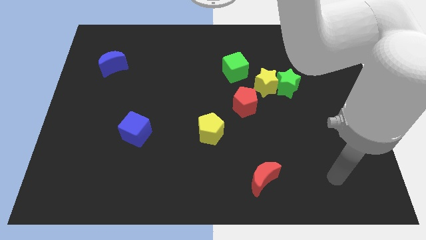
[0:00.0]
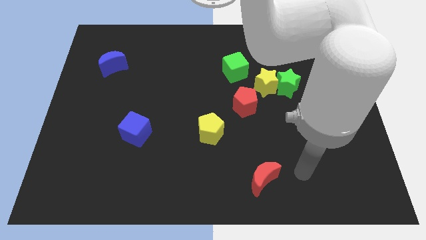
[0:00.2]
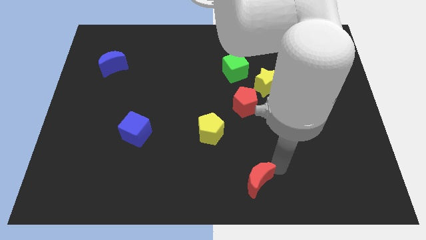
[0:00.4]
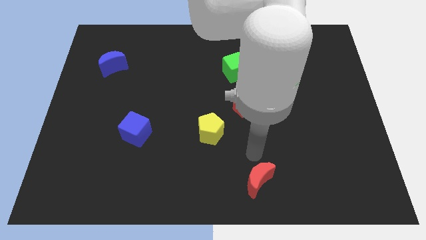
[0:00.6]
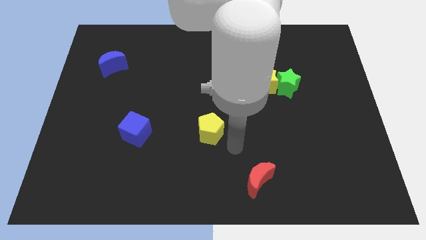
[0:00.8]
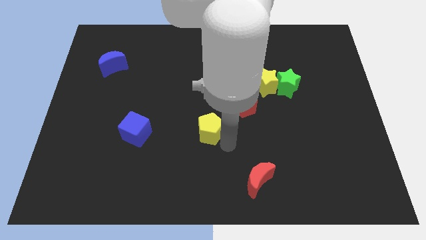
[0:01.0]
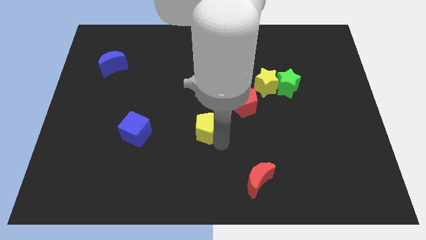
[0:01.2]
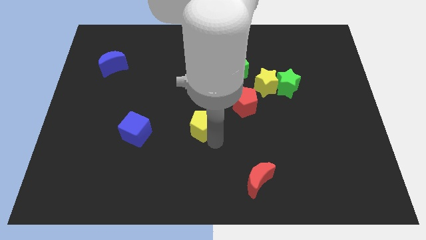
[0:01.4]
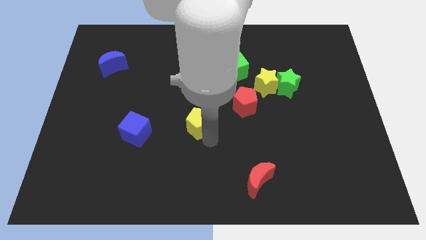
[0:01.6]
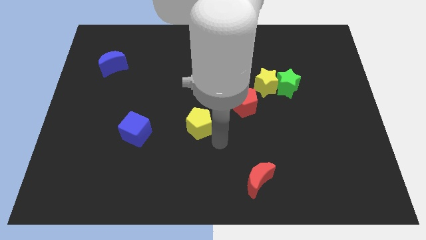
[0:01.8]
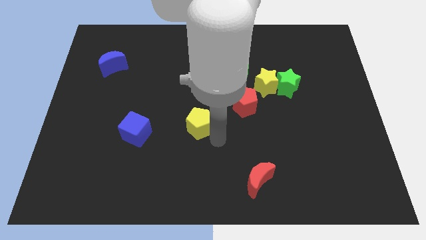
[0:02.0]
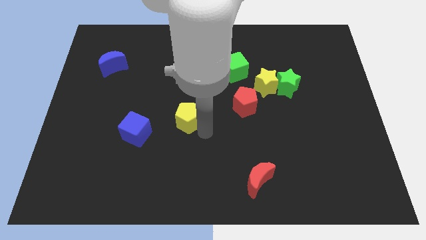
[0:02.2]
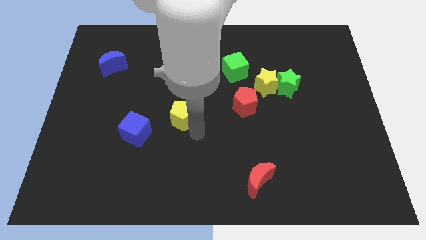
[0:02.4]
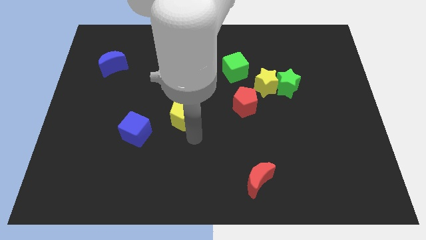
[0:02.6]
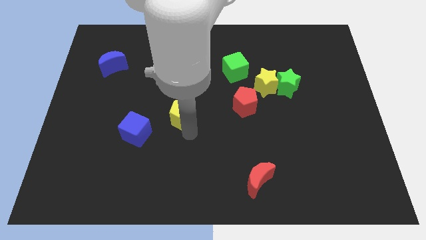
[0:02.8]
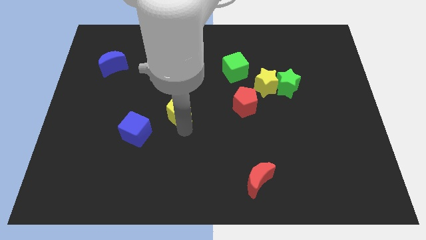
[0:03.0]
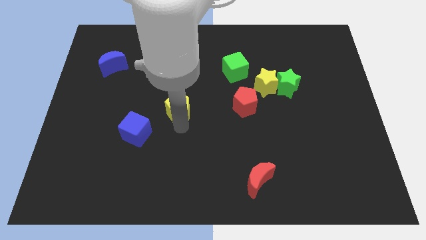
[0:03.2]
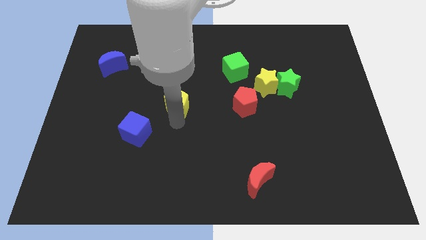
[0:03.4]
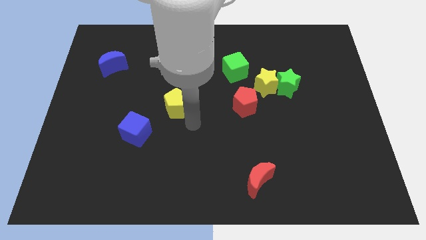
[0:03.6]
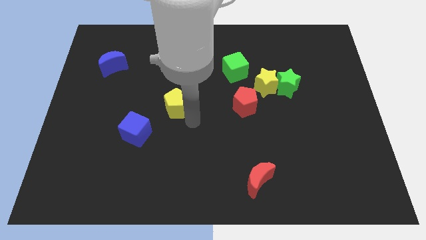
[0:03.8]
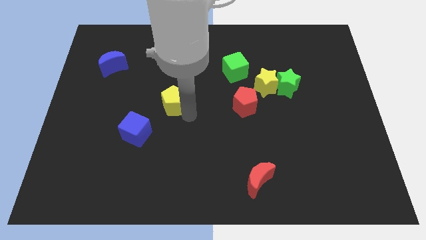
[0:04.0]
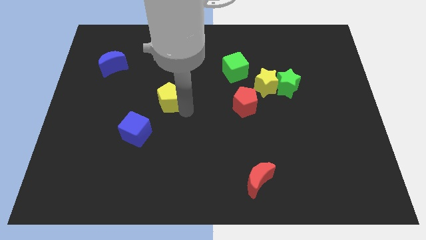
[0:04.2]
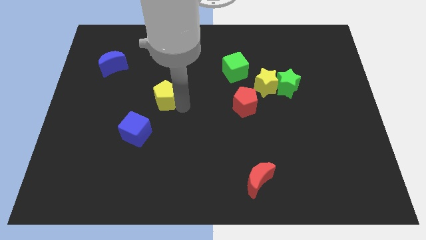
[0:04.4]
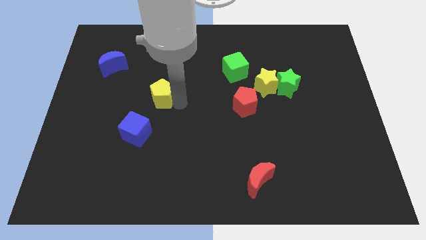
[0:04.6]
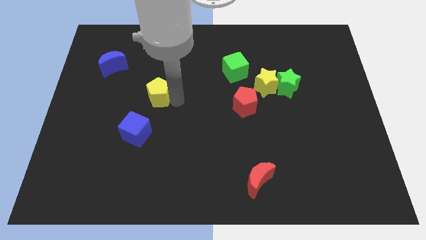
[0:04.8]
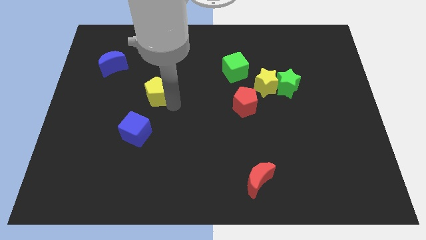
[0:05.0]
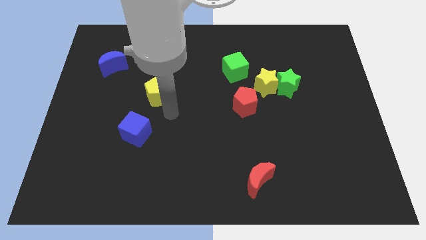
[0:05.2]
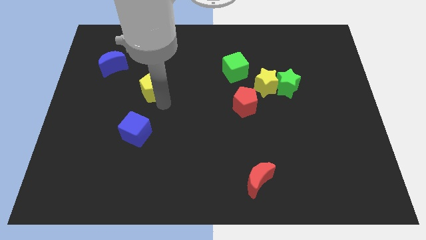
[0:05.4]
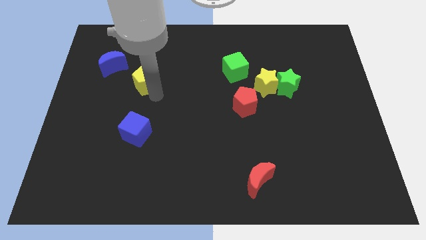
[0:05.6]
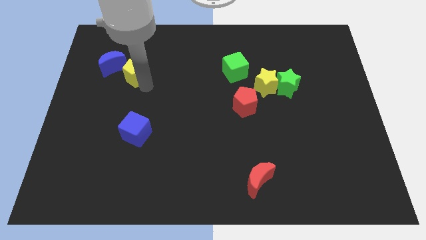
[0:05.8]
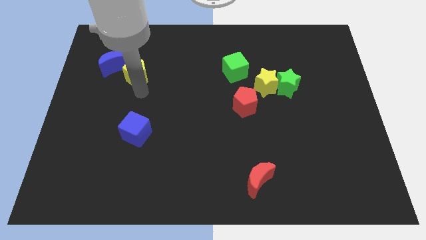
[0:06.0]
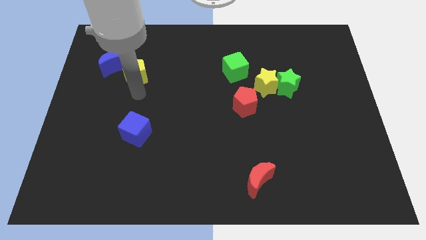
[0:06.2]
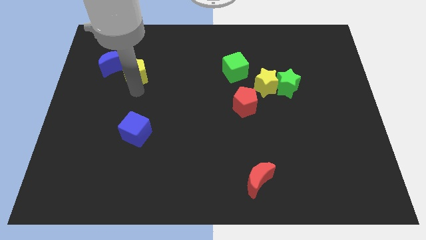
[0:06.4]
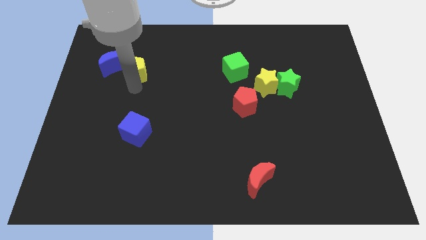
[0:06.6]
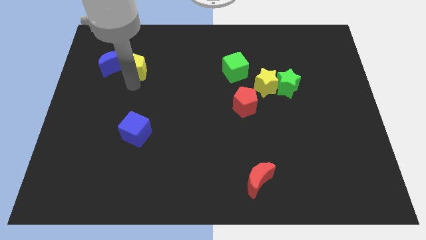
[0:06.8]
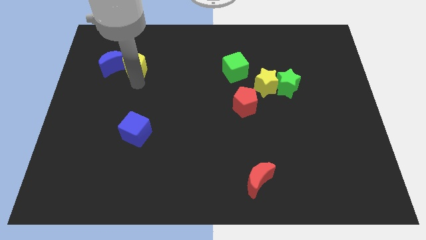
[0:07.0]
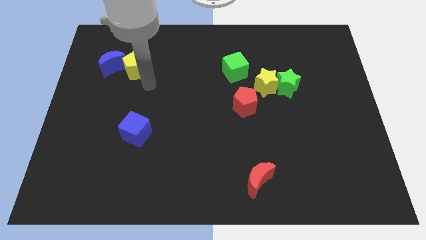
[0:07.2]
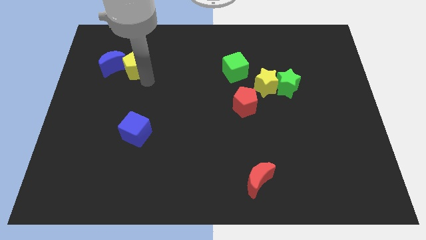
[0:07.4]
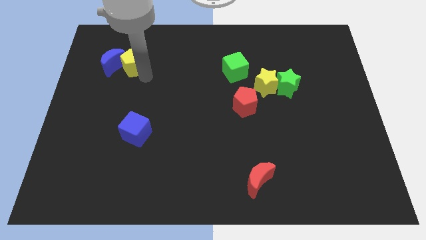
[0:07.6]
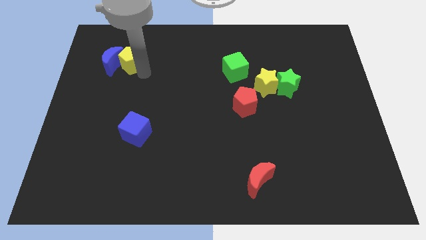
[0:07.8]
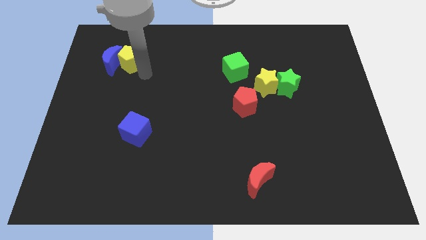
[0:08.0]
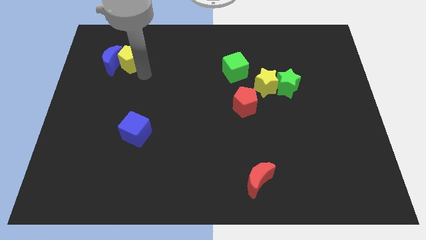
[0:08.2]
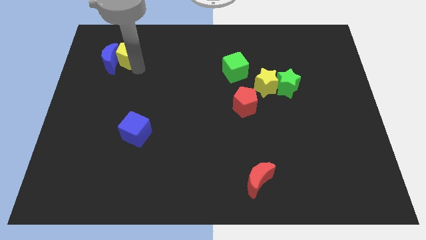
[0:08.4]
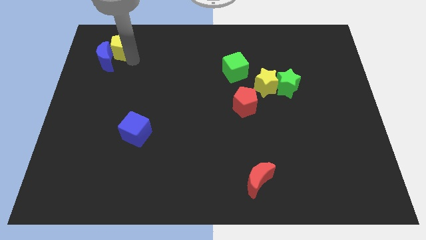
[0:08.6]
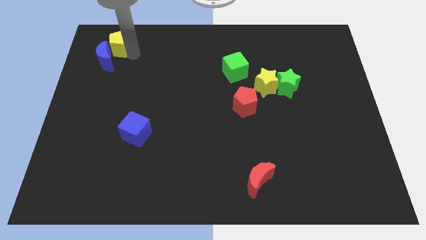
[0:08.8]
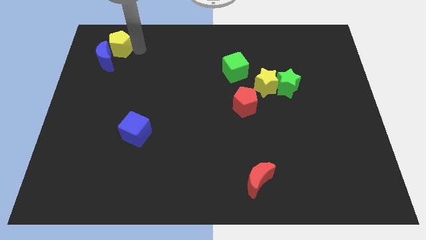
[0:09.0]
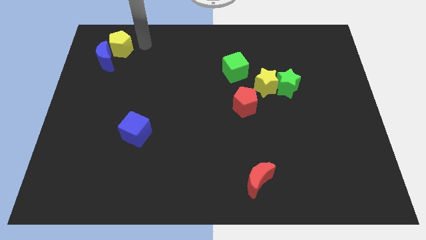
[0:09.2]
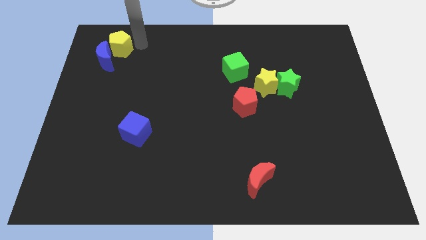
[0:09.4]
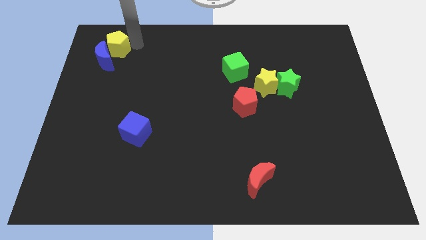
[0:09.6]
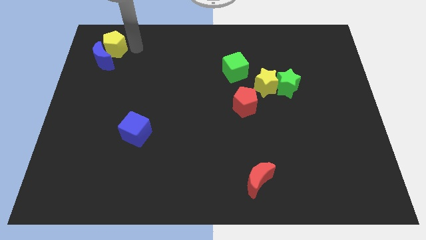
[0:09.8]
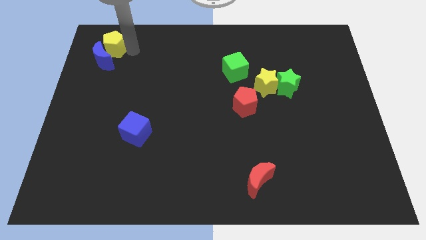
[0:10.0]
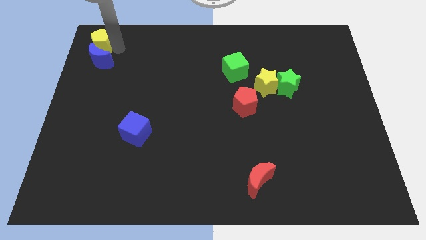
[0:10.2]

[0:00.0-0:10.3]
put the yellow pentagon to the top left

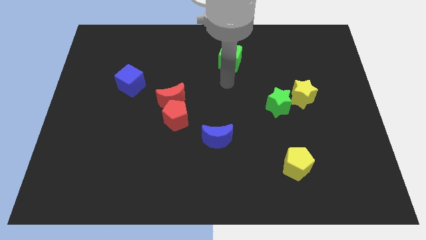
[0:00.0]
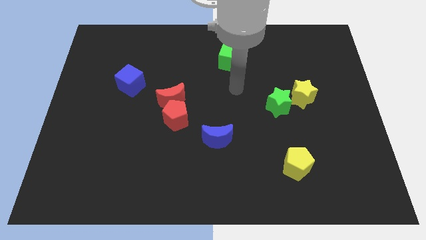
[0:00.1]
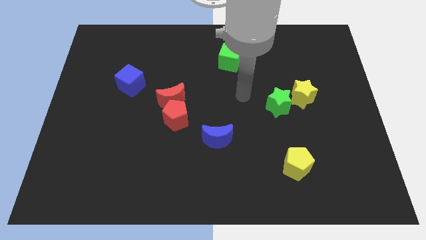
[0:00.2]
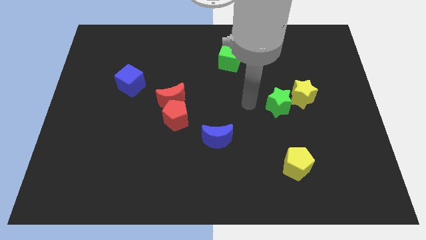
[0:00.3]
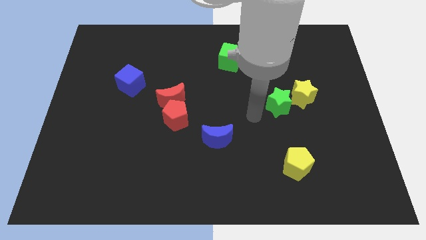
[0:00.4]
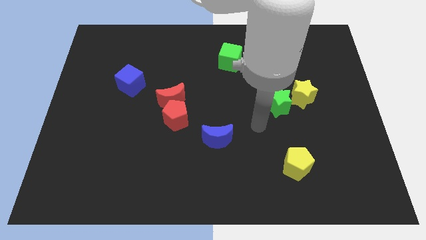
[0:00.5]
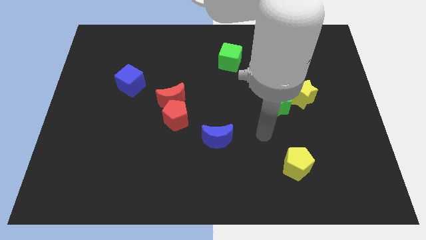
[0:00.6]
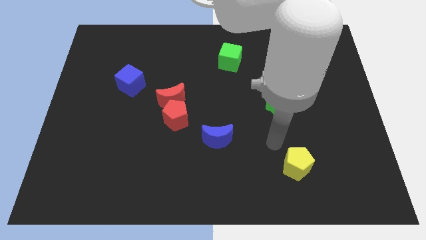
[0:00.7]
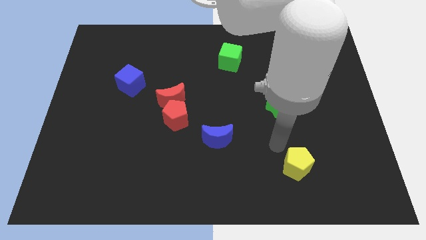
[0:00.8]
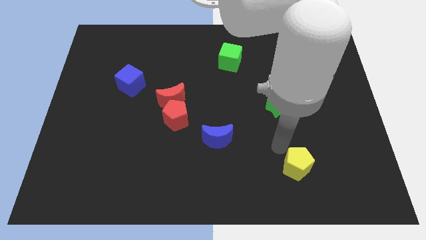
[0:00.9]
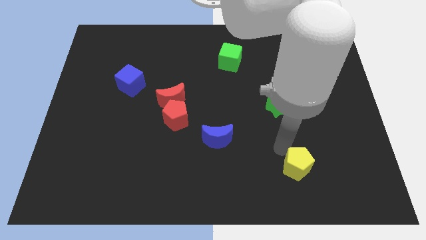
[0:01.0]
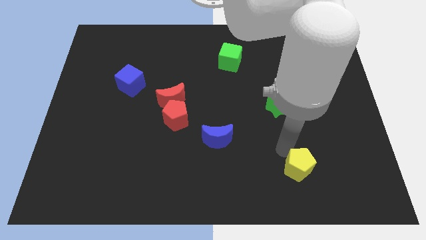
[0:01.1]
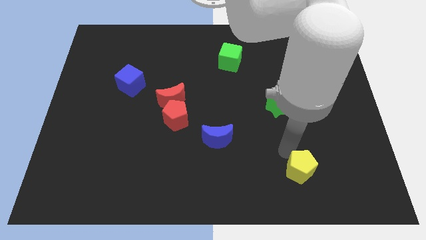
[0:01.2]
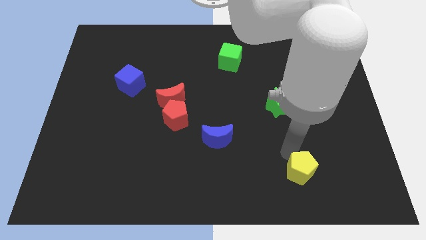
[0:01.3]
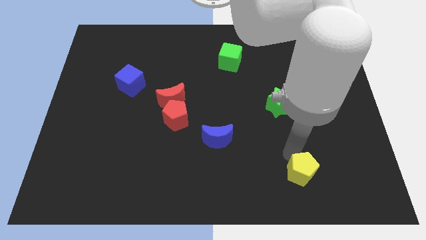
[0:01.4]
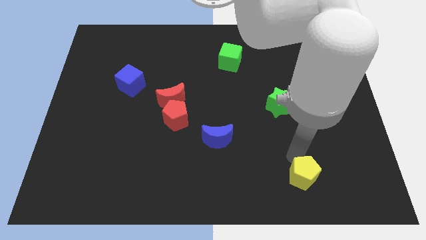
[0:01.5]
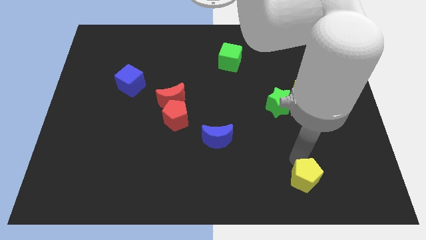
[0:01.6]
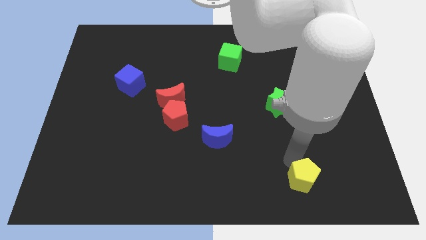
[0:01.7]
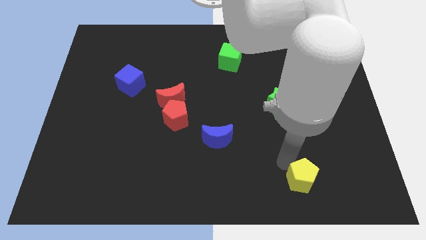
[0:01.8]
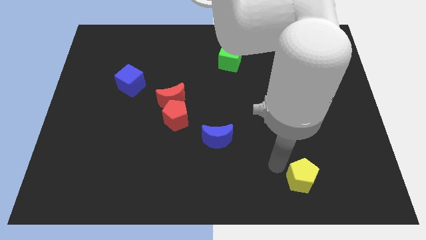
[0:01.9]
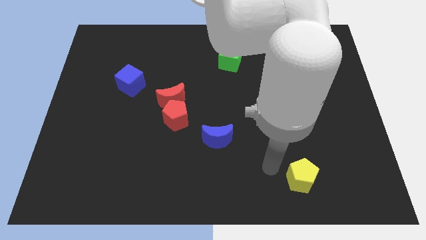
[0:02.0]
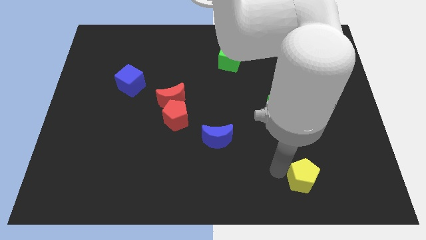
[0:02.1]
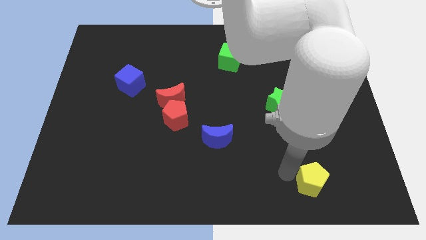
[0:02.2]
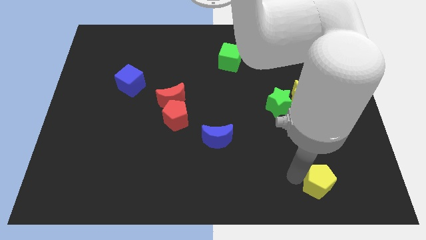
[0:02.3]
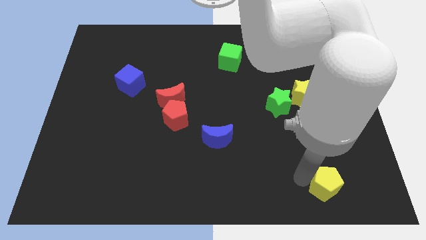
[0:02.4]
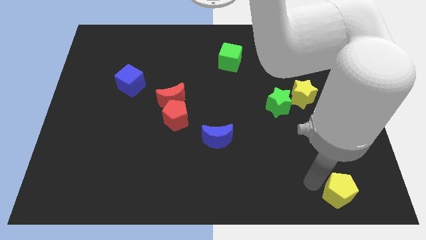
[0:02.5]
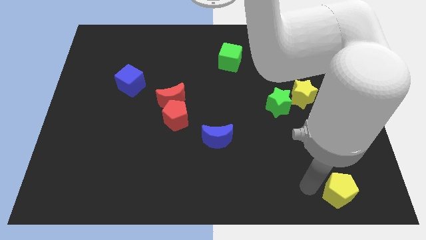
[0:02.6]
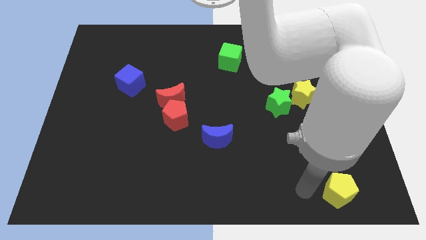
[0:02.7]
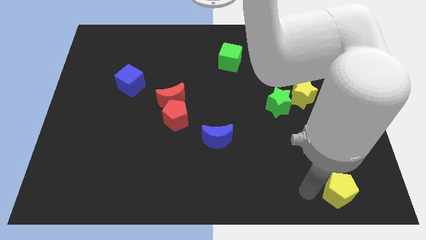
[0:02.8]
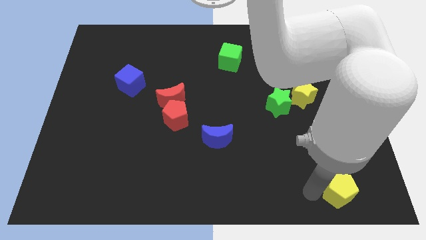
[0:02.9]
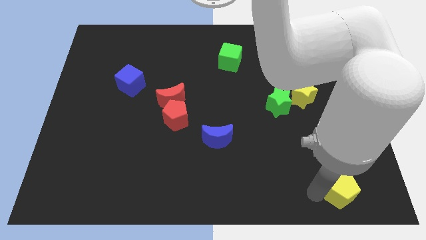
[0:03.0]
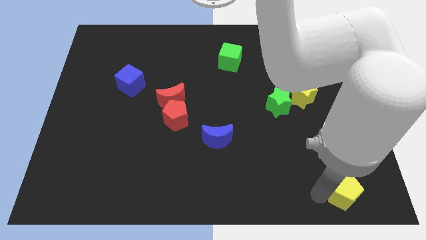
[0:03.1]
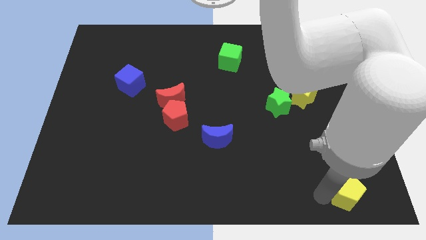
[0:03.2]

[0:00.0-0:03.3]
move the yellow pentagon to the bottom right

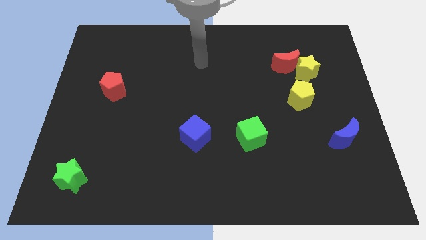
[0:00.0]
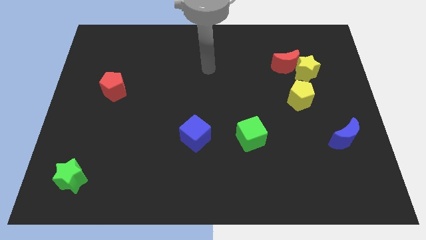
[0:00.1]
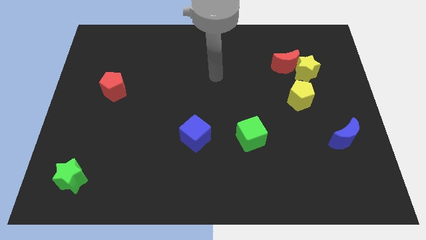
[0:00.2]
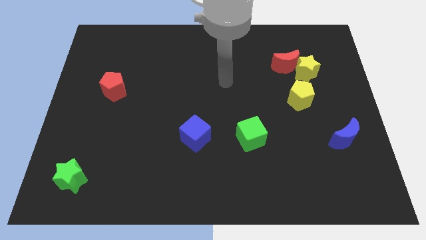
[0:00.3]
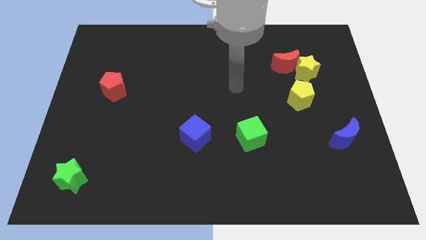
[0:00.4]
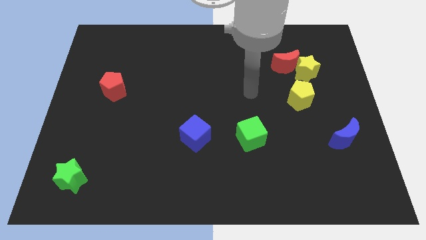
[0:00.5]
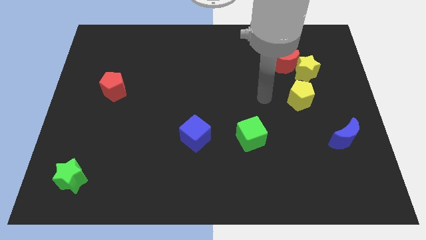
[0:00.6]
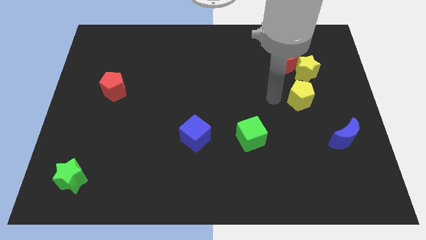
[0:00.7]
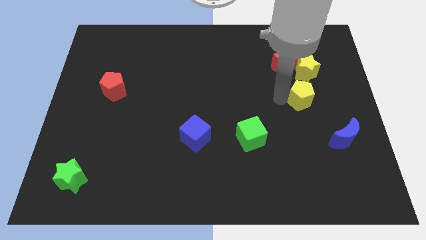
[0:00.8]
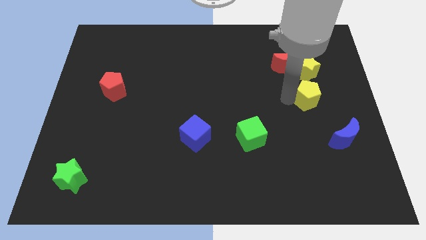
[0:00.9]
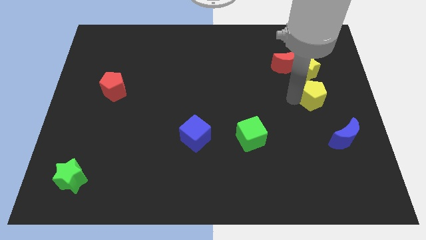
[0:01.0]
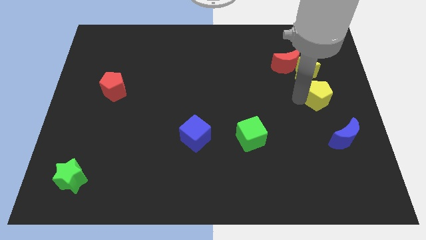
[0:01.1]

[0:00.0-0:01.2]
push the yellow pentagon to the right side of the board
